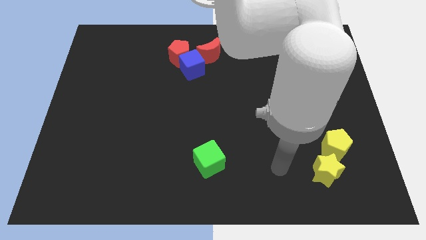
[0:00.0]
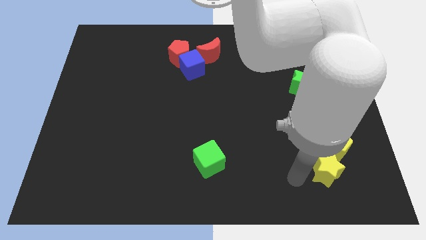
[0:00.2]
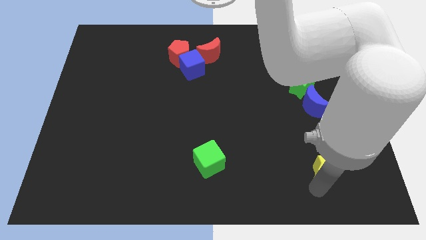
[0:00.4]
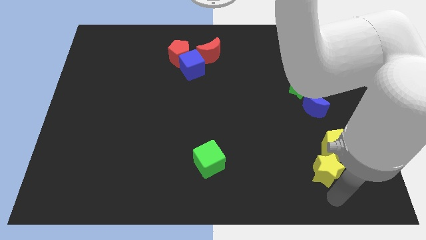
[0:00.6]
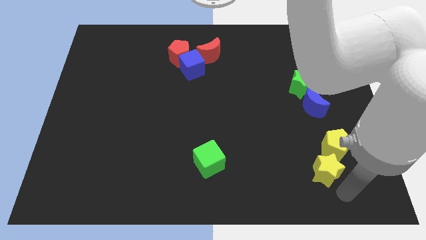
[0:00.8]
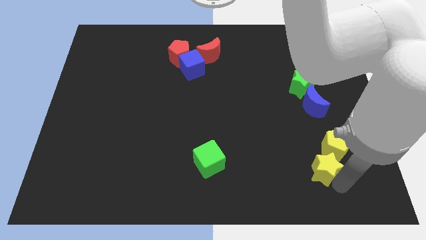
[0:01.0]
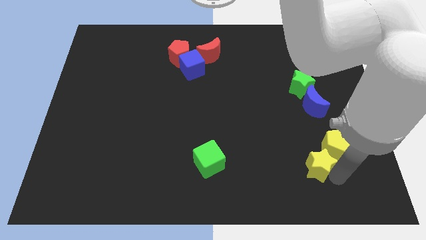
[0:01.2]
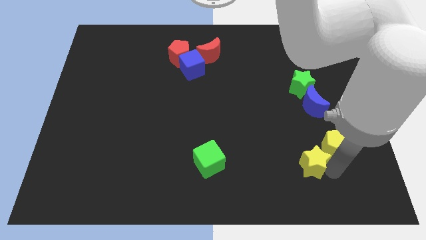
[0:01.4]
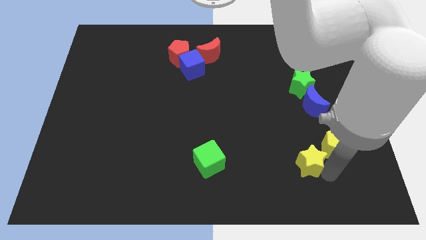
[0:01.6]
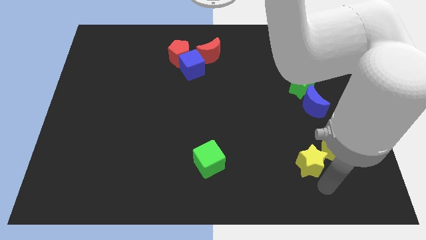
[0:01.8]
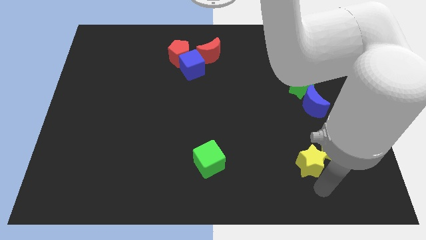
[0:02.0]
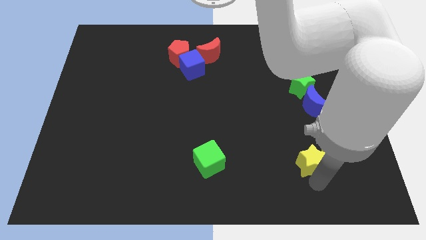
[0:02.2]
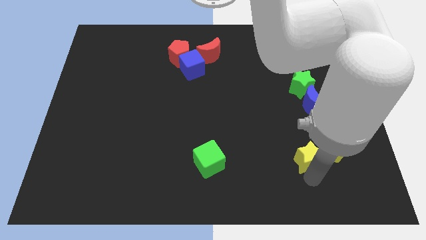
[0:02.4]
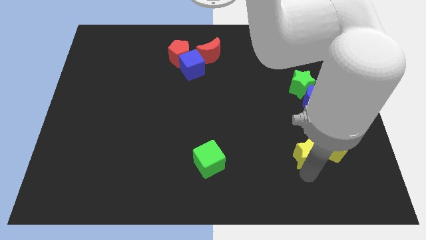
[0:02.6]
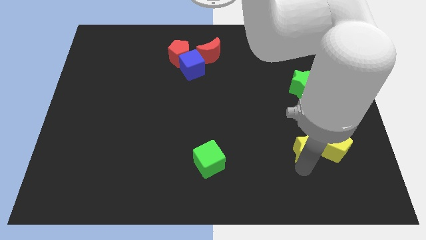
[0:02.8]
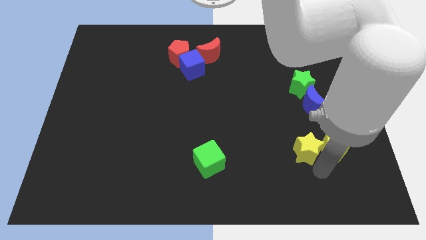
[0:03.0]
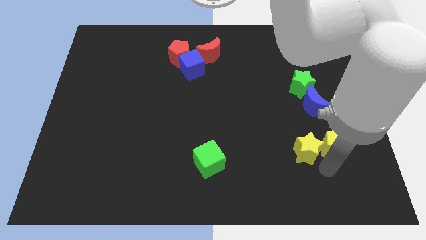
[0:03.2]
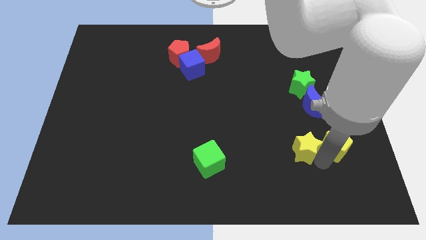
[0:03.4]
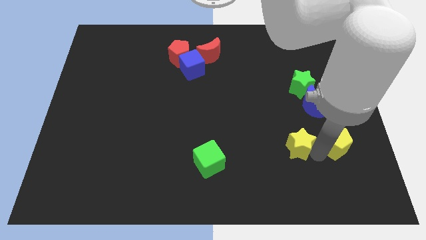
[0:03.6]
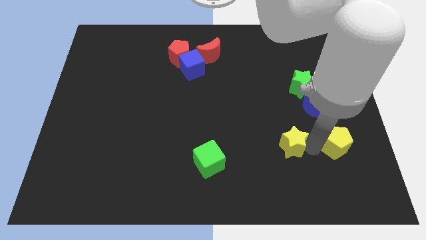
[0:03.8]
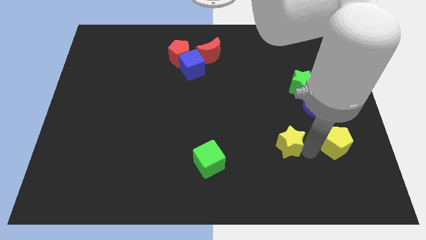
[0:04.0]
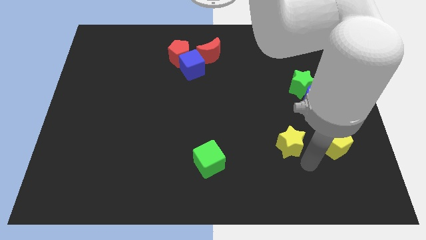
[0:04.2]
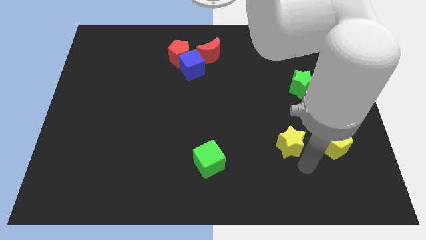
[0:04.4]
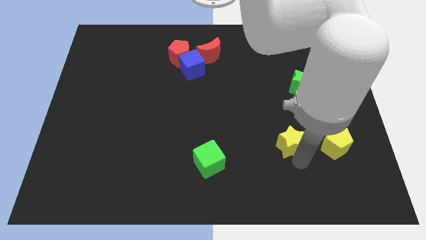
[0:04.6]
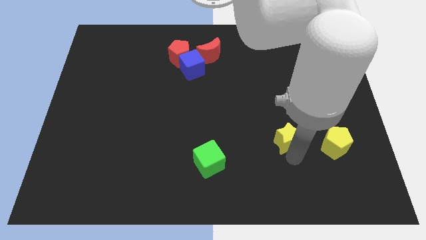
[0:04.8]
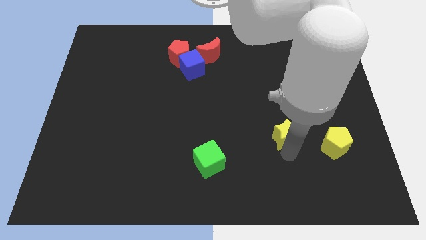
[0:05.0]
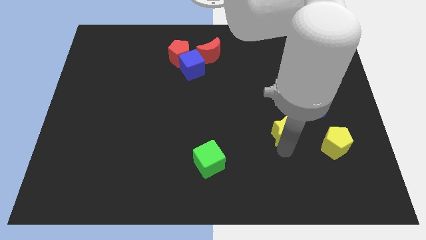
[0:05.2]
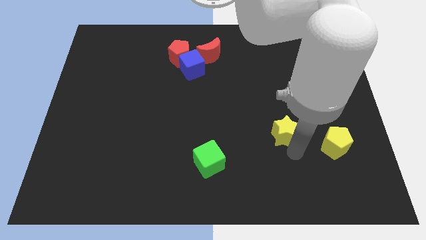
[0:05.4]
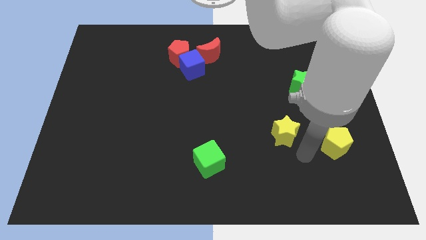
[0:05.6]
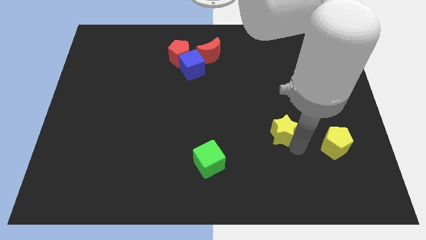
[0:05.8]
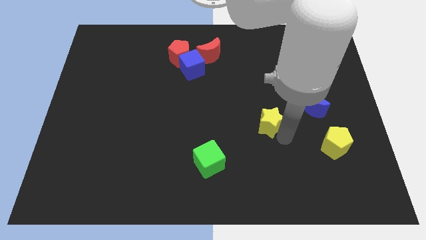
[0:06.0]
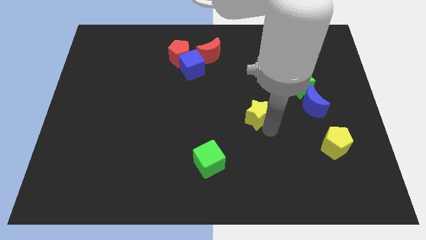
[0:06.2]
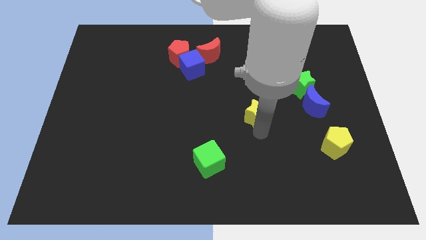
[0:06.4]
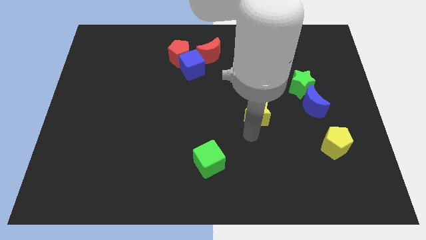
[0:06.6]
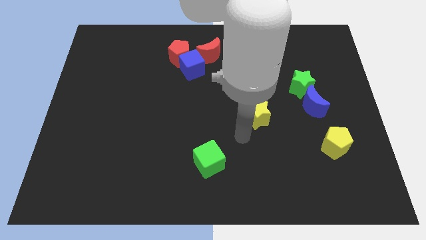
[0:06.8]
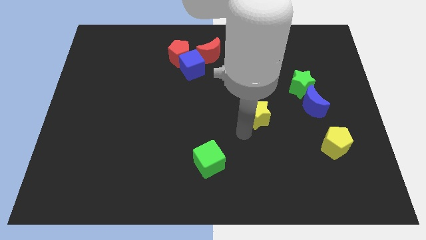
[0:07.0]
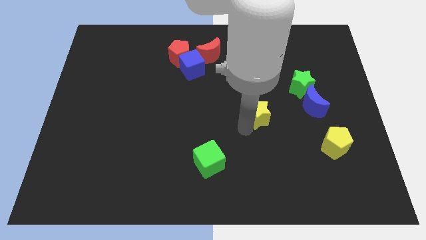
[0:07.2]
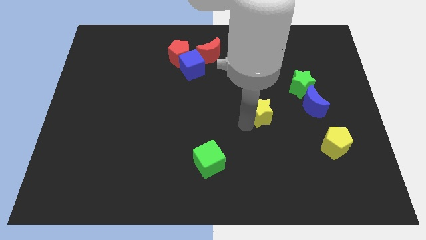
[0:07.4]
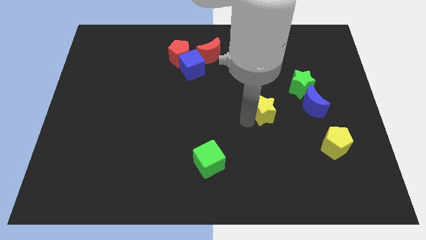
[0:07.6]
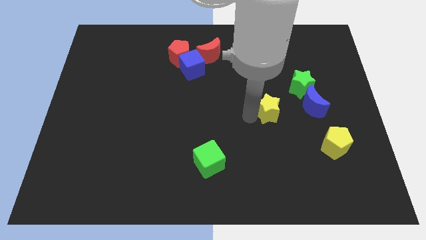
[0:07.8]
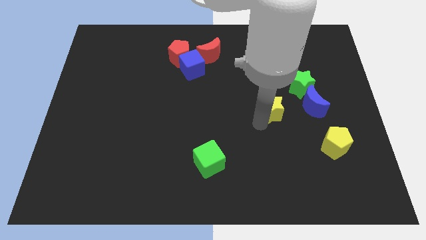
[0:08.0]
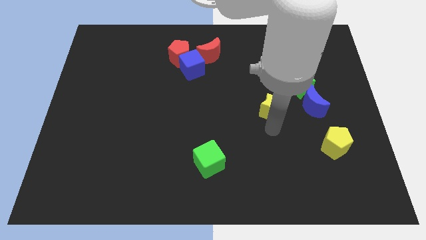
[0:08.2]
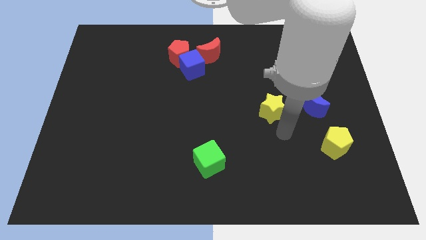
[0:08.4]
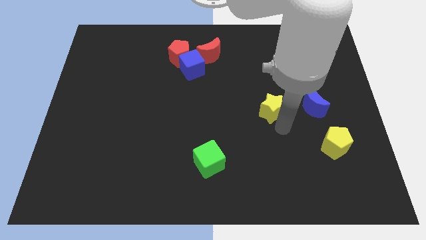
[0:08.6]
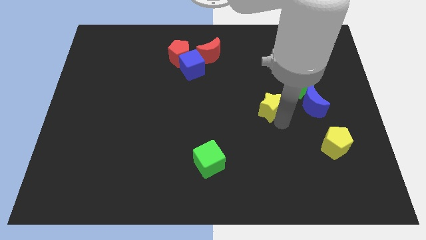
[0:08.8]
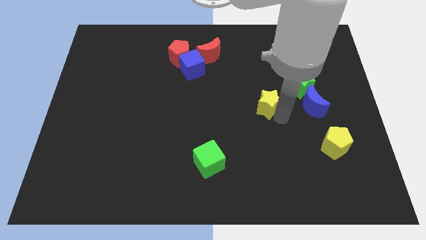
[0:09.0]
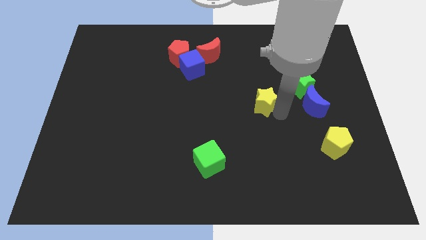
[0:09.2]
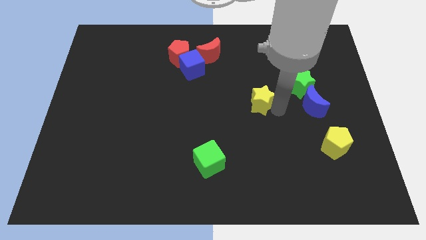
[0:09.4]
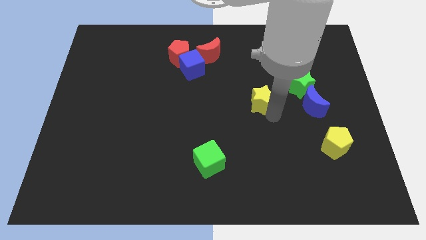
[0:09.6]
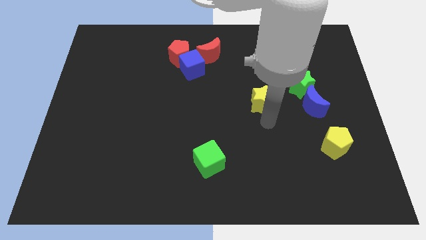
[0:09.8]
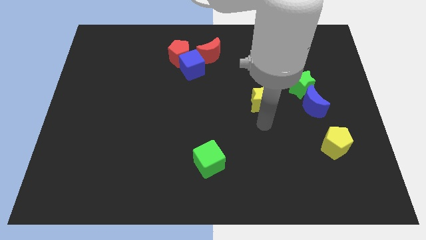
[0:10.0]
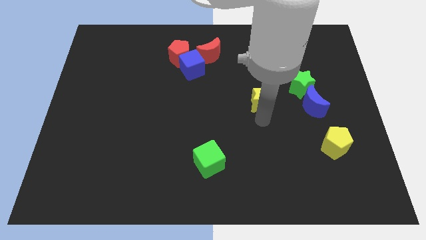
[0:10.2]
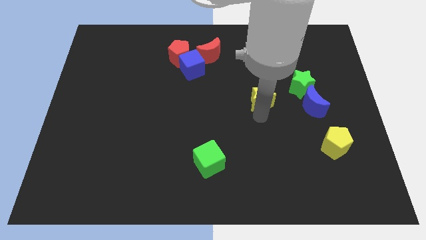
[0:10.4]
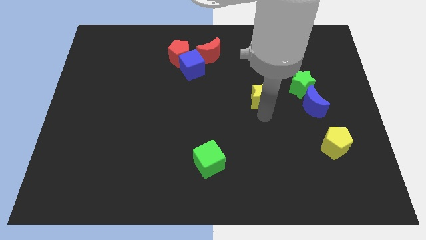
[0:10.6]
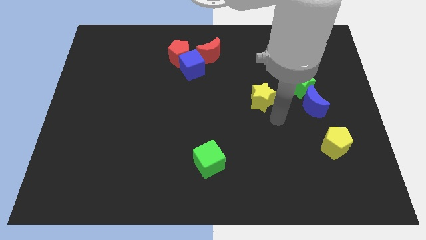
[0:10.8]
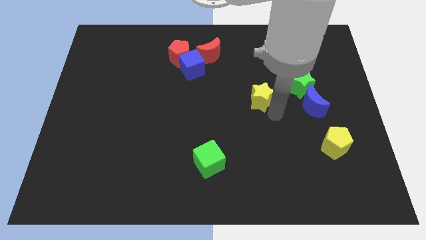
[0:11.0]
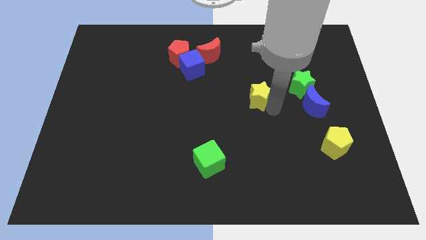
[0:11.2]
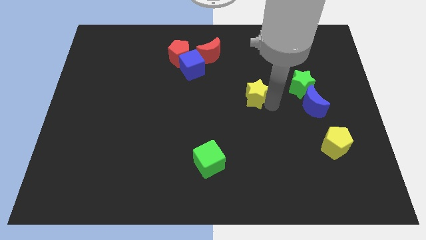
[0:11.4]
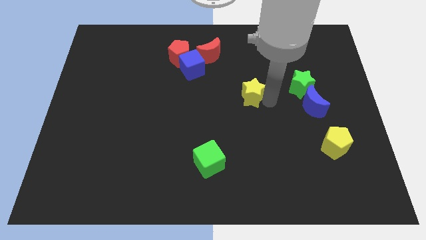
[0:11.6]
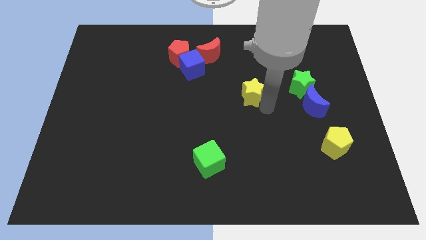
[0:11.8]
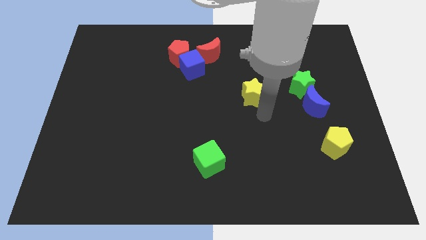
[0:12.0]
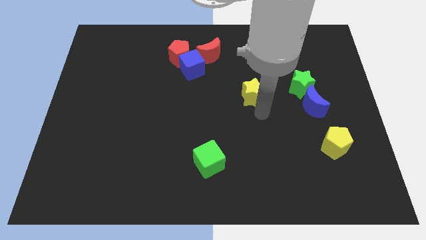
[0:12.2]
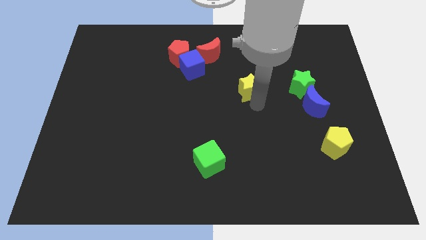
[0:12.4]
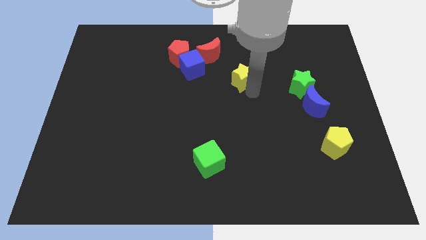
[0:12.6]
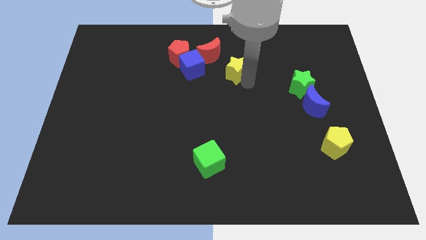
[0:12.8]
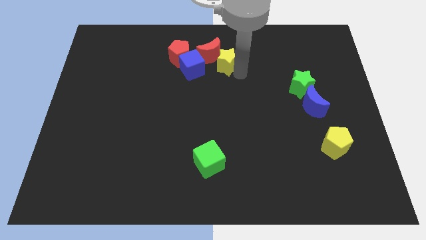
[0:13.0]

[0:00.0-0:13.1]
put the yellow star close to the red moon
